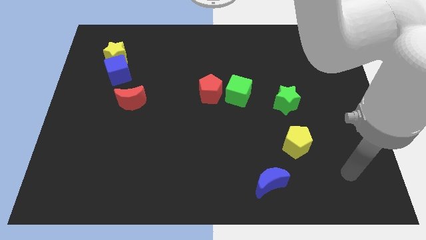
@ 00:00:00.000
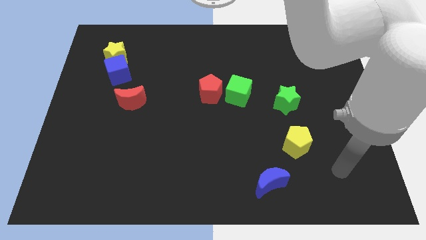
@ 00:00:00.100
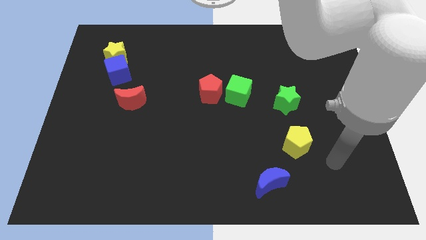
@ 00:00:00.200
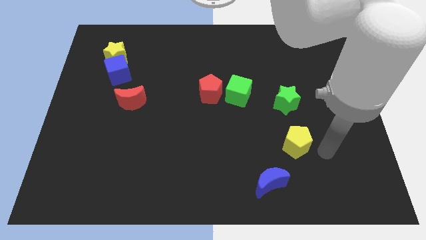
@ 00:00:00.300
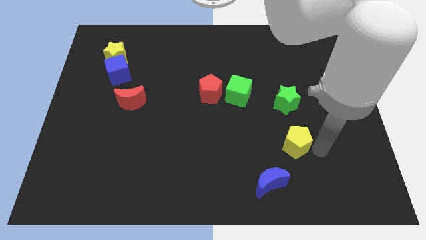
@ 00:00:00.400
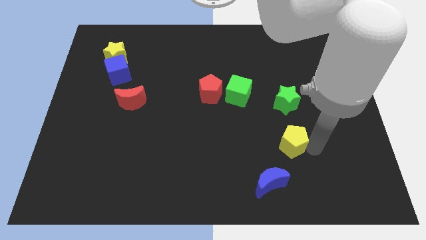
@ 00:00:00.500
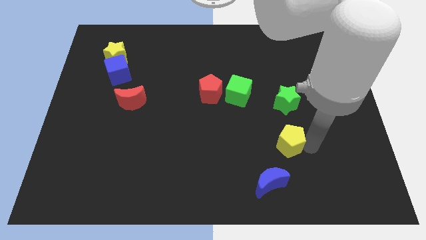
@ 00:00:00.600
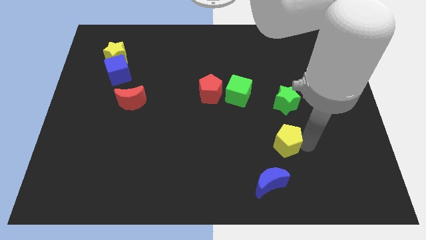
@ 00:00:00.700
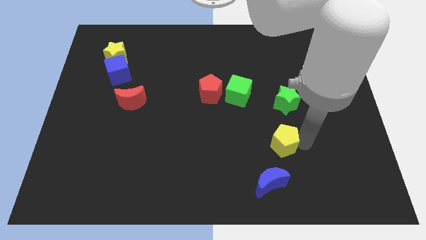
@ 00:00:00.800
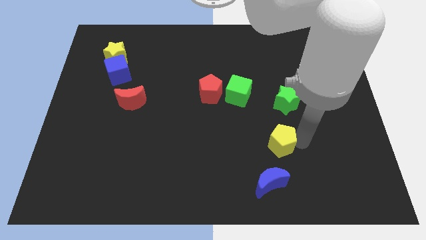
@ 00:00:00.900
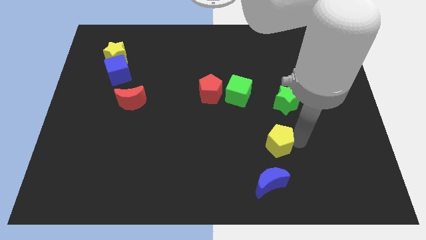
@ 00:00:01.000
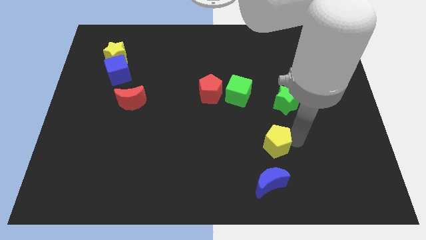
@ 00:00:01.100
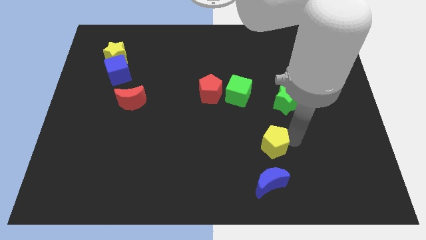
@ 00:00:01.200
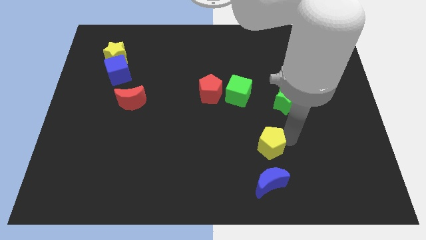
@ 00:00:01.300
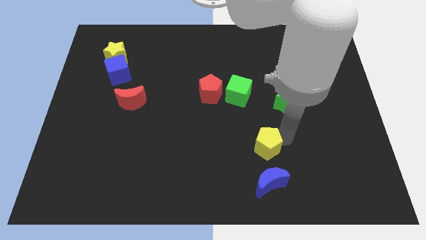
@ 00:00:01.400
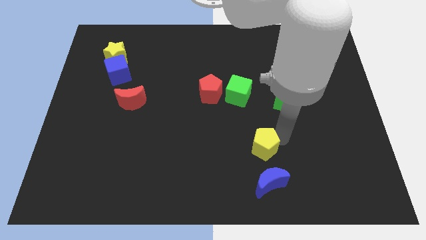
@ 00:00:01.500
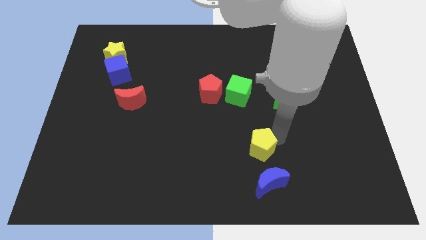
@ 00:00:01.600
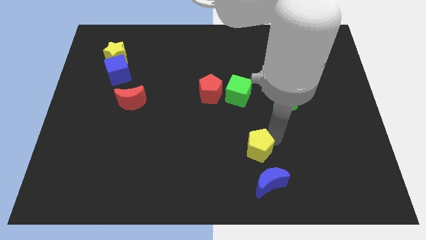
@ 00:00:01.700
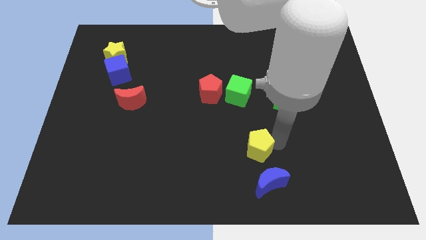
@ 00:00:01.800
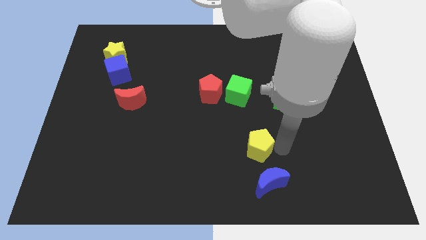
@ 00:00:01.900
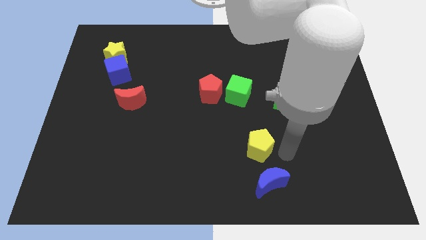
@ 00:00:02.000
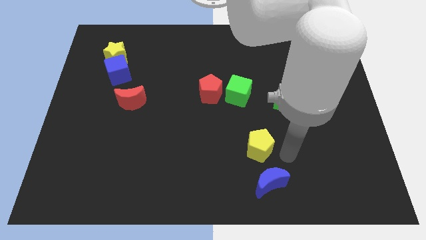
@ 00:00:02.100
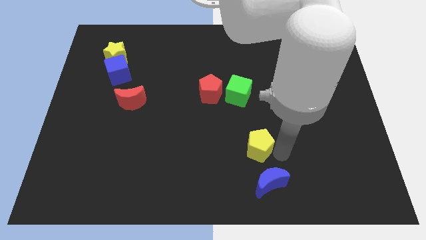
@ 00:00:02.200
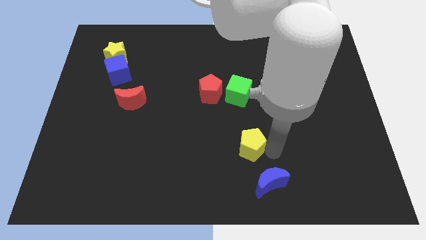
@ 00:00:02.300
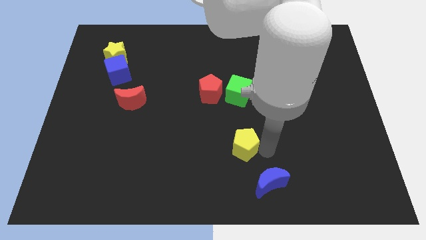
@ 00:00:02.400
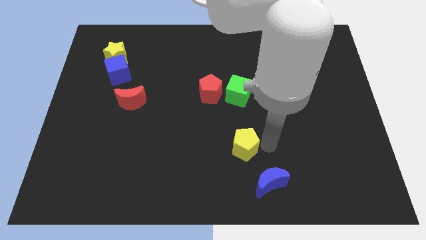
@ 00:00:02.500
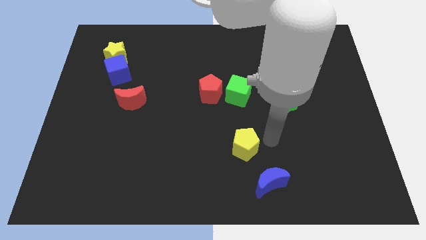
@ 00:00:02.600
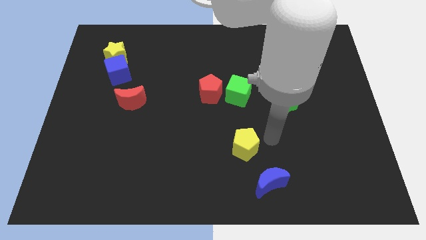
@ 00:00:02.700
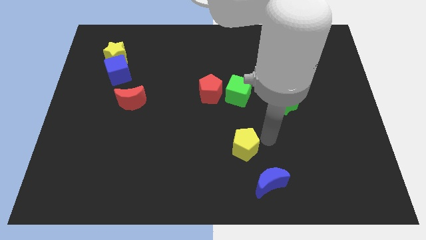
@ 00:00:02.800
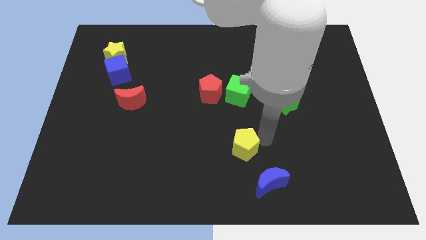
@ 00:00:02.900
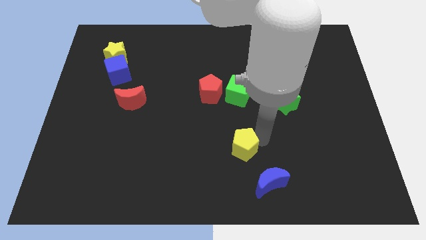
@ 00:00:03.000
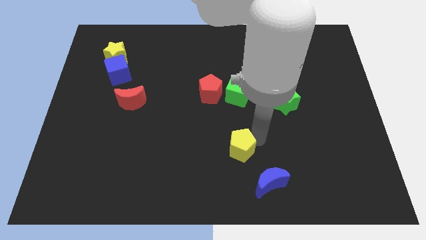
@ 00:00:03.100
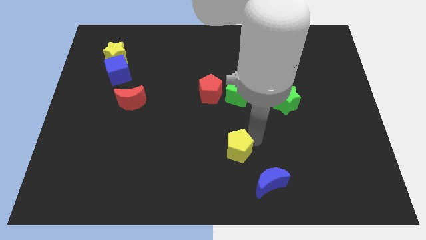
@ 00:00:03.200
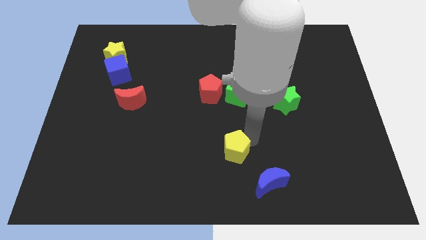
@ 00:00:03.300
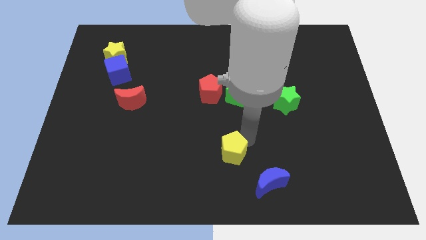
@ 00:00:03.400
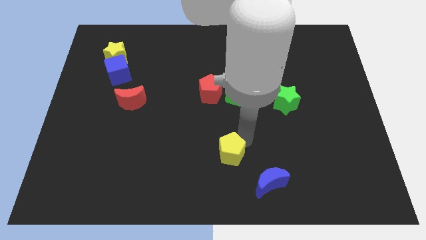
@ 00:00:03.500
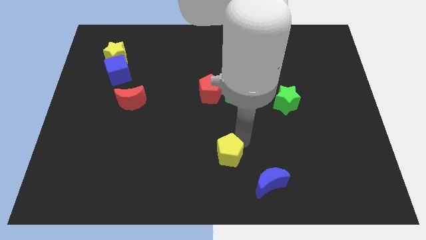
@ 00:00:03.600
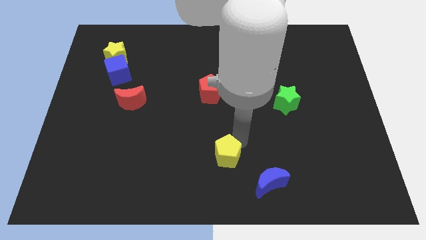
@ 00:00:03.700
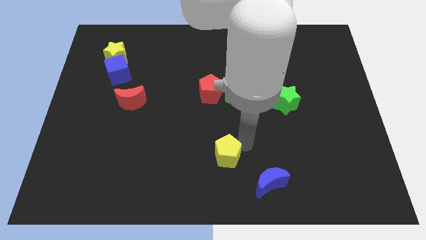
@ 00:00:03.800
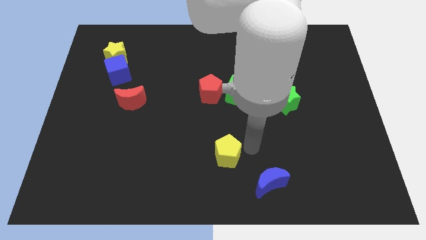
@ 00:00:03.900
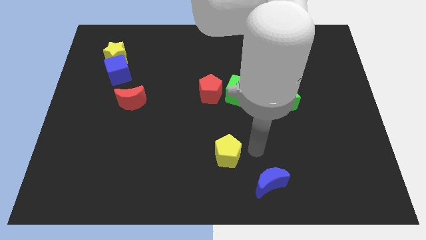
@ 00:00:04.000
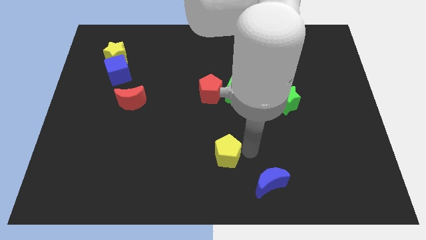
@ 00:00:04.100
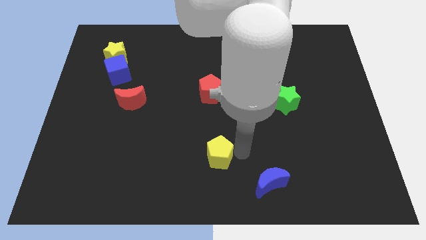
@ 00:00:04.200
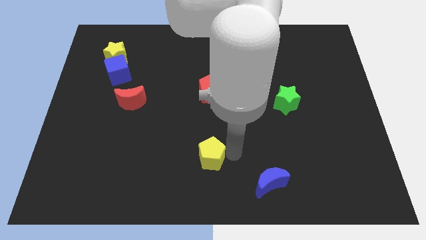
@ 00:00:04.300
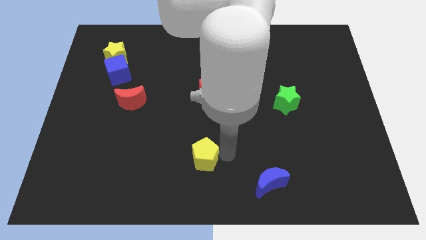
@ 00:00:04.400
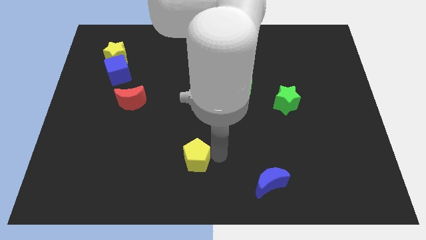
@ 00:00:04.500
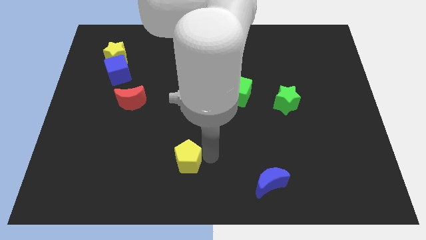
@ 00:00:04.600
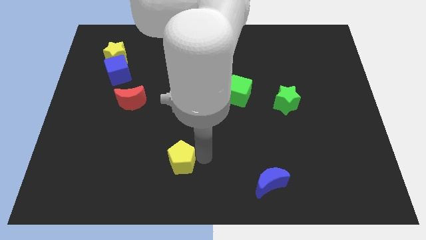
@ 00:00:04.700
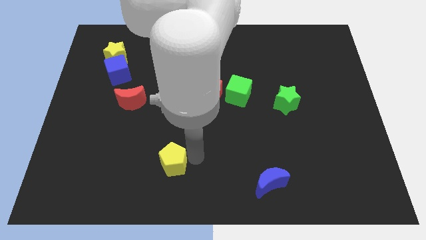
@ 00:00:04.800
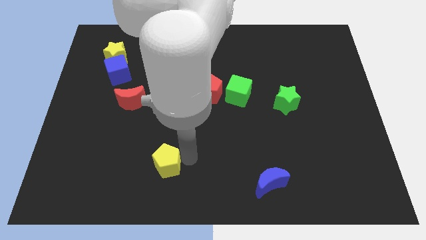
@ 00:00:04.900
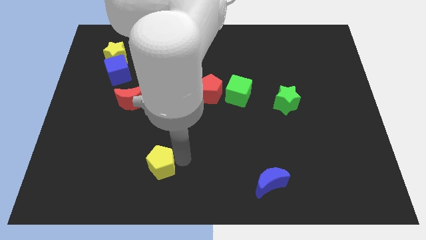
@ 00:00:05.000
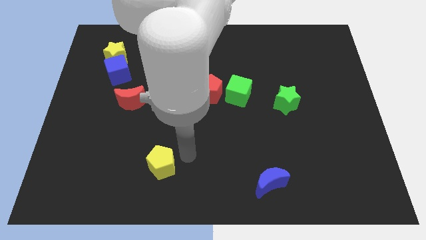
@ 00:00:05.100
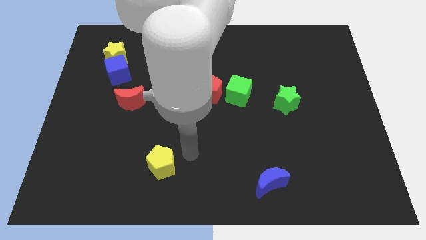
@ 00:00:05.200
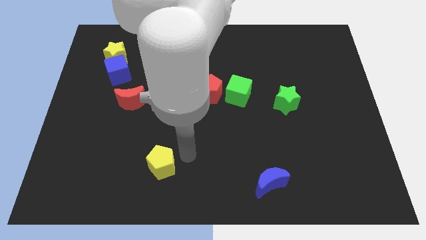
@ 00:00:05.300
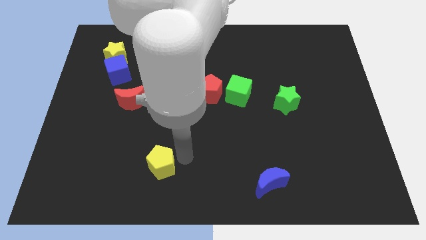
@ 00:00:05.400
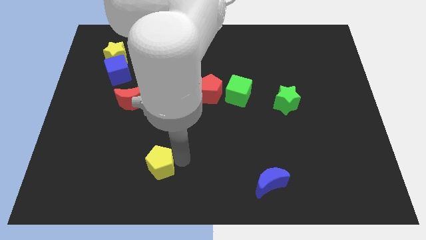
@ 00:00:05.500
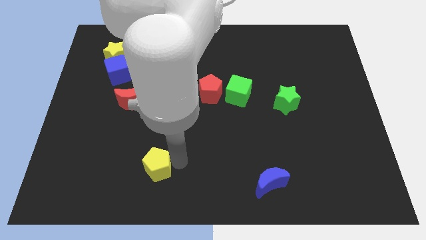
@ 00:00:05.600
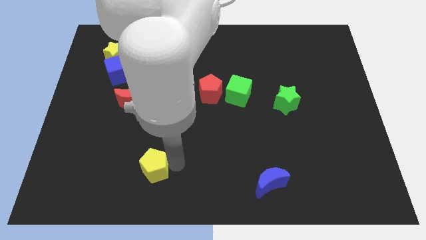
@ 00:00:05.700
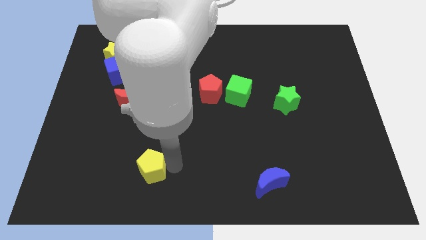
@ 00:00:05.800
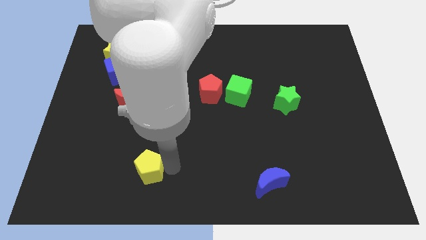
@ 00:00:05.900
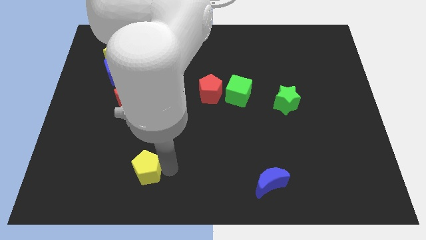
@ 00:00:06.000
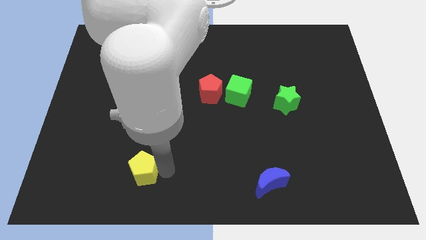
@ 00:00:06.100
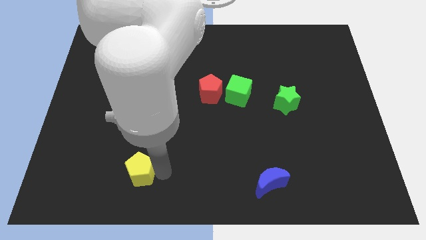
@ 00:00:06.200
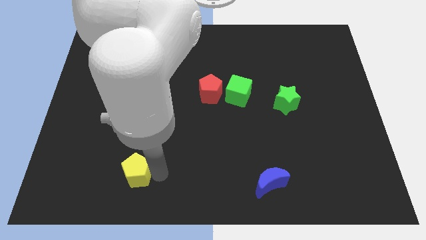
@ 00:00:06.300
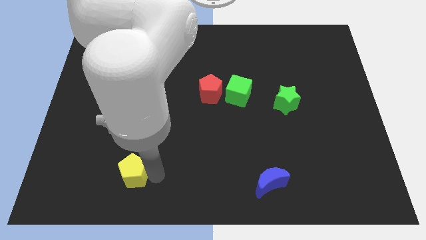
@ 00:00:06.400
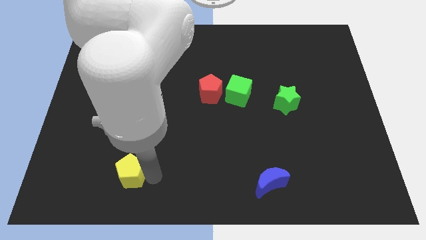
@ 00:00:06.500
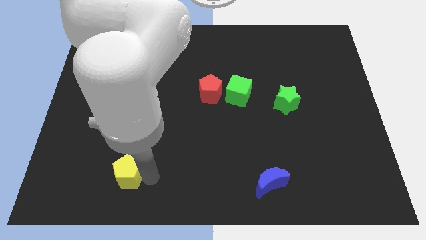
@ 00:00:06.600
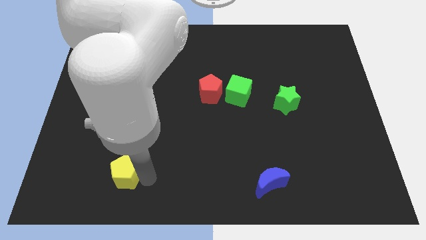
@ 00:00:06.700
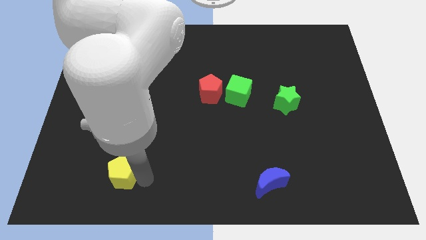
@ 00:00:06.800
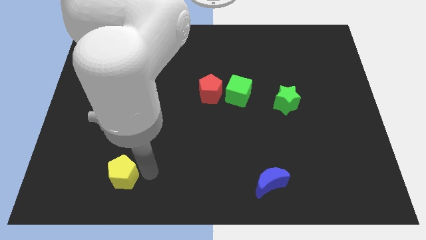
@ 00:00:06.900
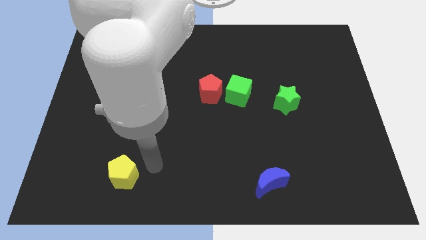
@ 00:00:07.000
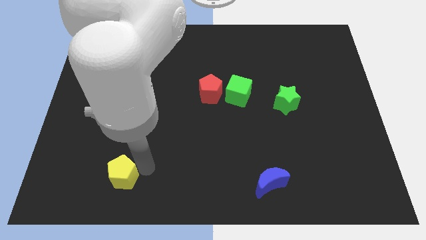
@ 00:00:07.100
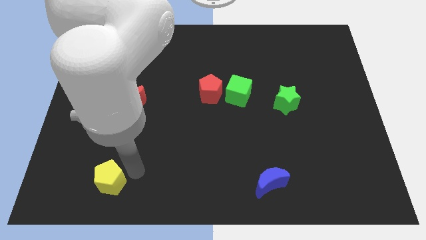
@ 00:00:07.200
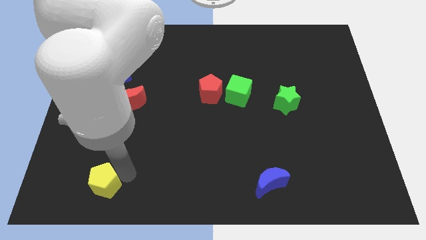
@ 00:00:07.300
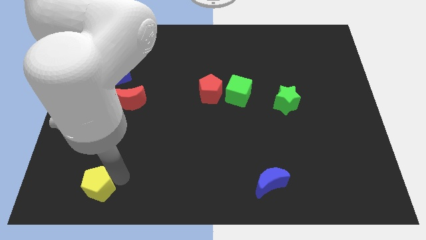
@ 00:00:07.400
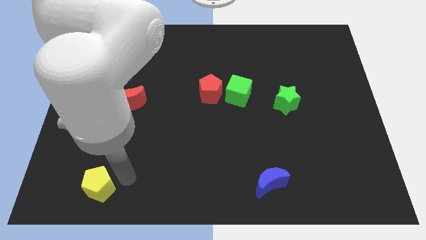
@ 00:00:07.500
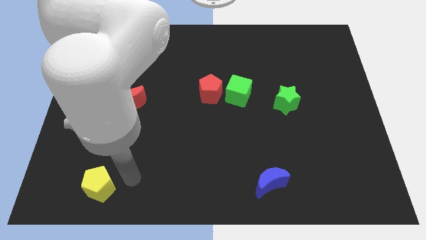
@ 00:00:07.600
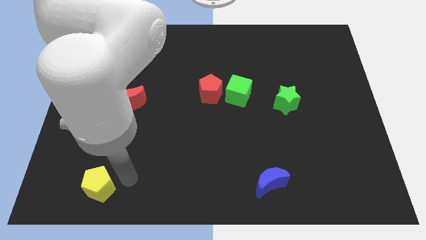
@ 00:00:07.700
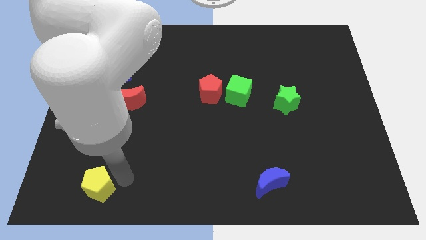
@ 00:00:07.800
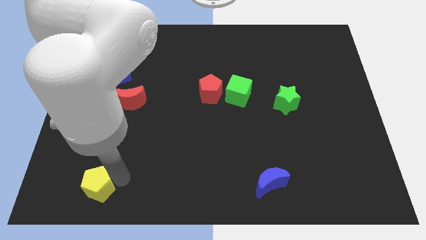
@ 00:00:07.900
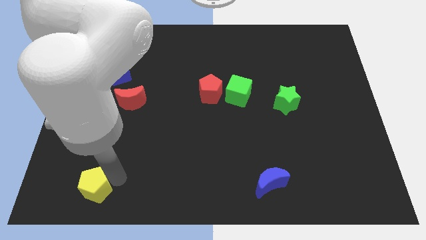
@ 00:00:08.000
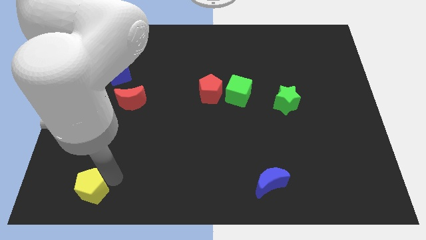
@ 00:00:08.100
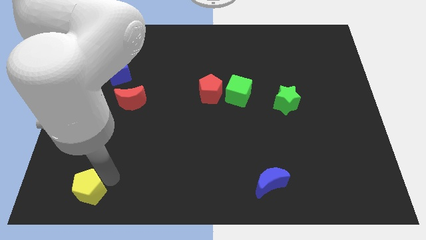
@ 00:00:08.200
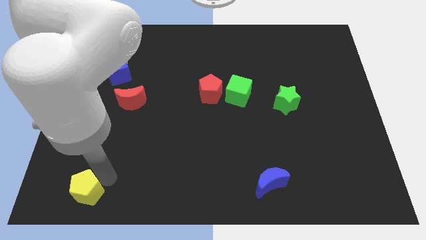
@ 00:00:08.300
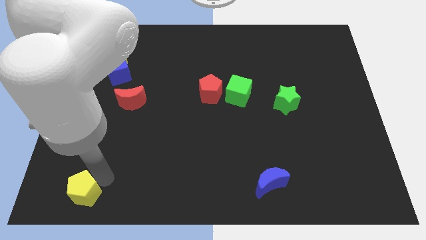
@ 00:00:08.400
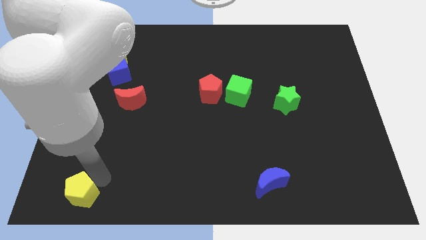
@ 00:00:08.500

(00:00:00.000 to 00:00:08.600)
push the yellow pentagon to the lower left corner
